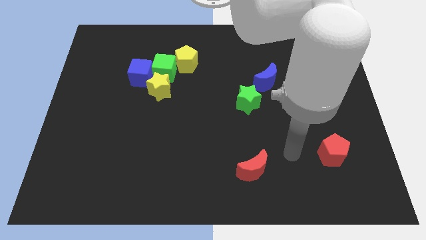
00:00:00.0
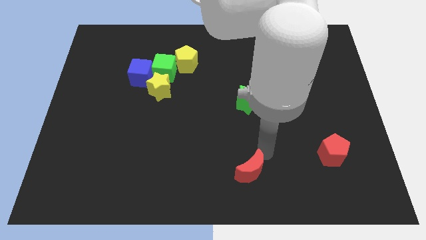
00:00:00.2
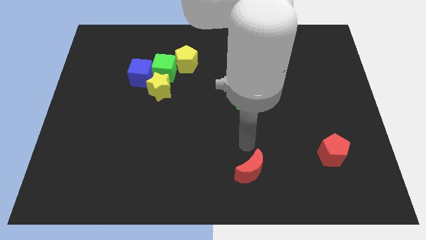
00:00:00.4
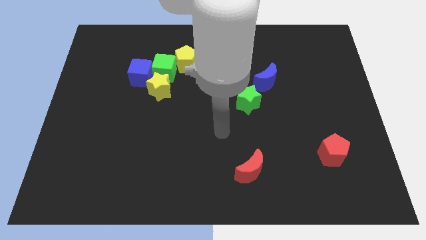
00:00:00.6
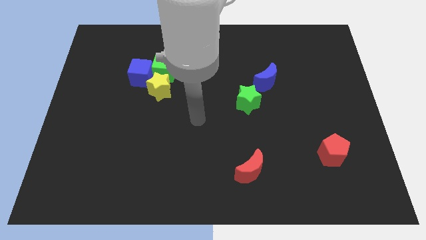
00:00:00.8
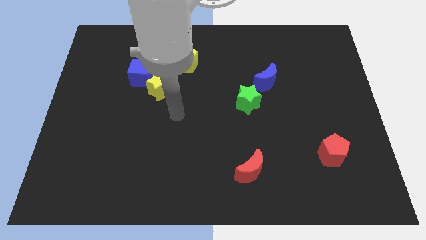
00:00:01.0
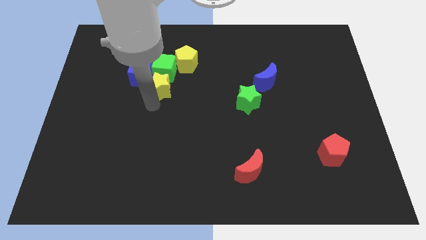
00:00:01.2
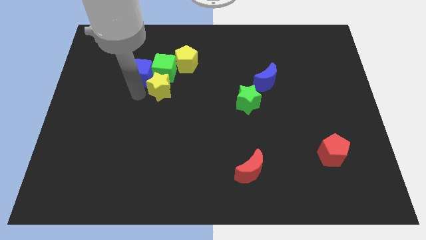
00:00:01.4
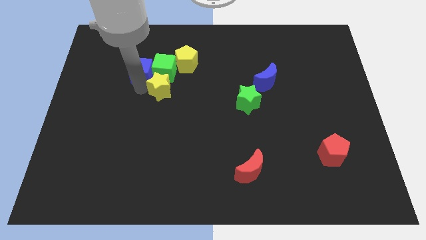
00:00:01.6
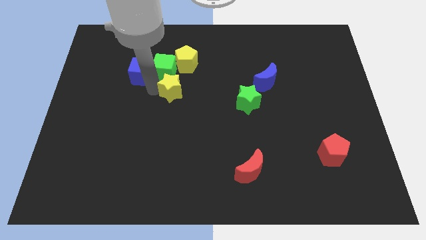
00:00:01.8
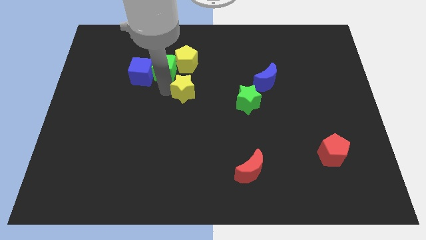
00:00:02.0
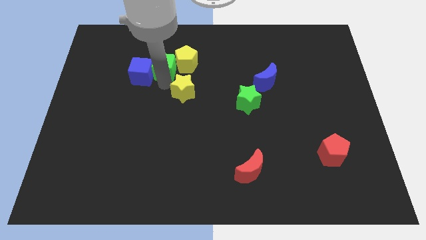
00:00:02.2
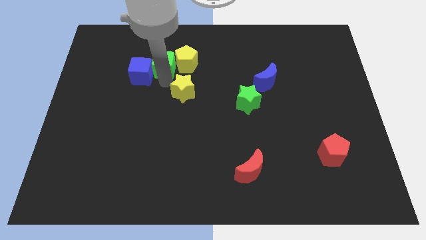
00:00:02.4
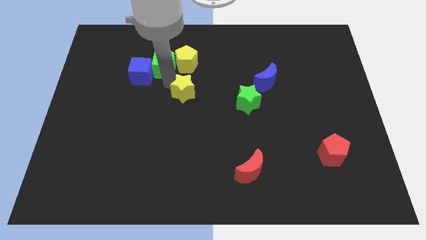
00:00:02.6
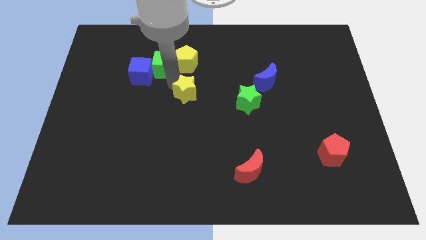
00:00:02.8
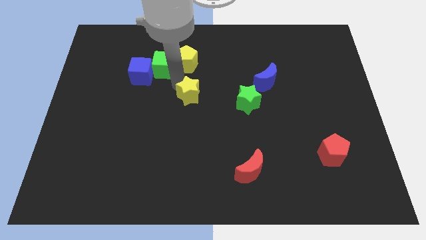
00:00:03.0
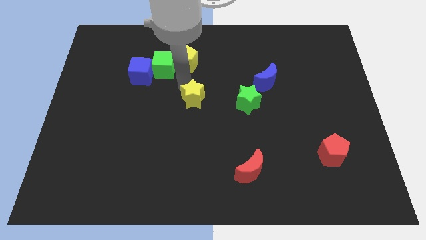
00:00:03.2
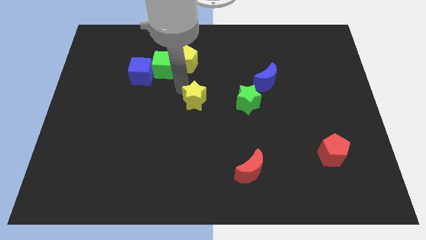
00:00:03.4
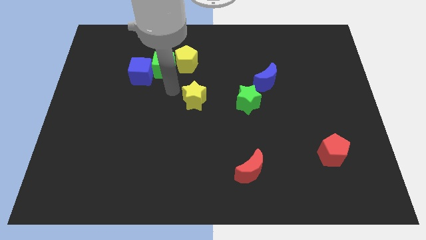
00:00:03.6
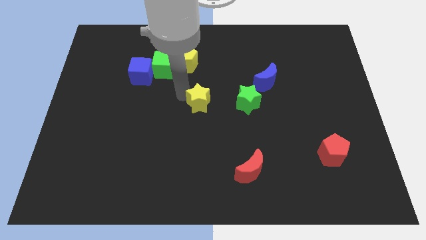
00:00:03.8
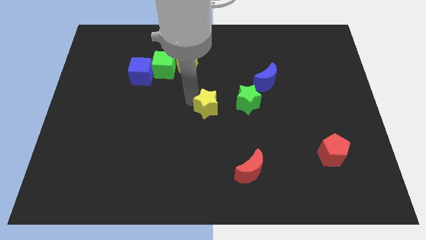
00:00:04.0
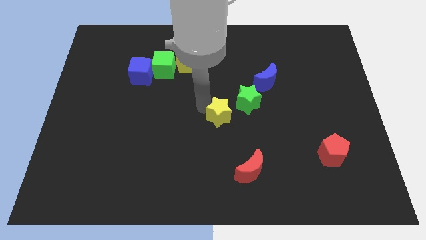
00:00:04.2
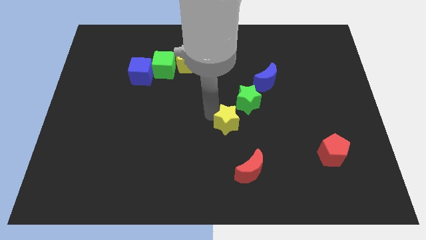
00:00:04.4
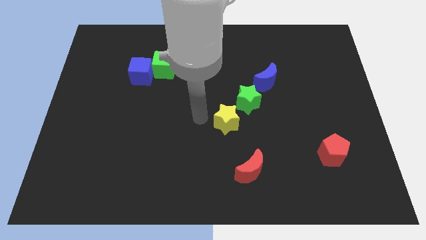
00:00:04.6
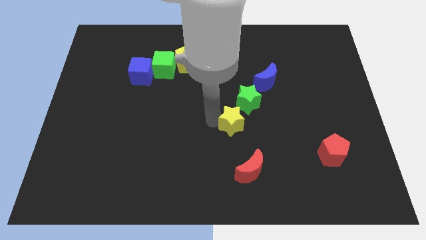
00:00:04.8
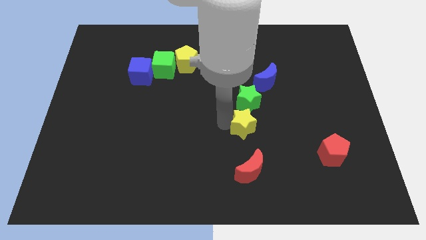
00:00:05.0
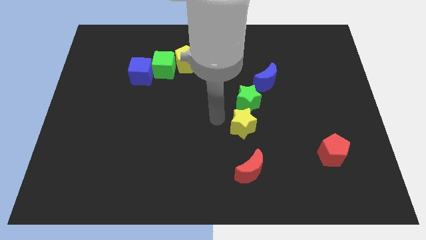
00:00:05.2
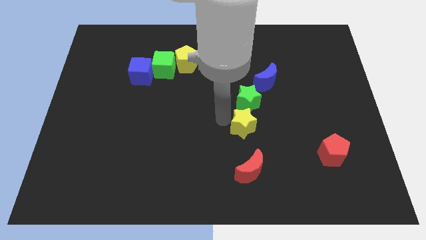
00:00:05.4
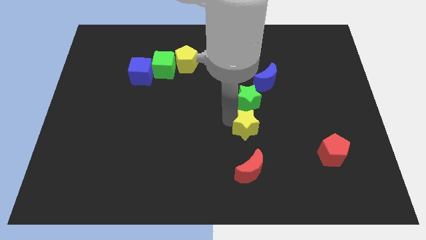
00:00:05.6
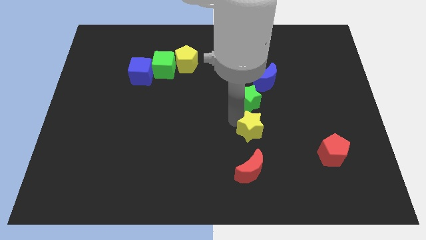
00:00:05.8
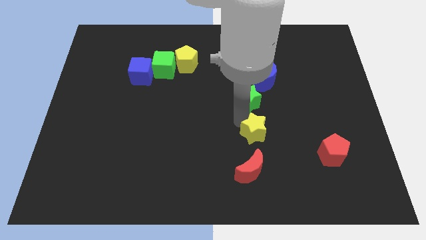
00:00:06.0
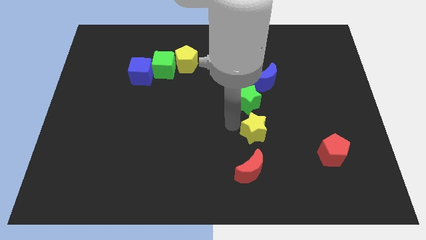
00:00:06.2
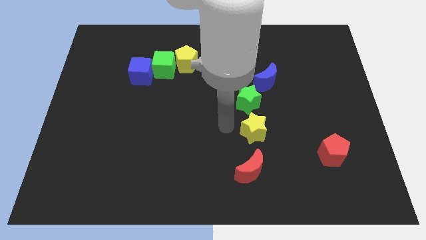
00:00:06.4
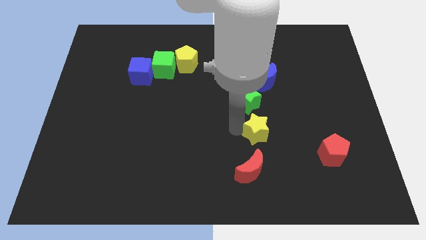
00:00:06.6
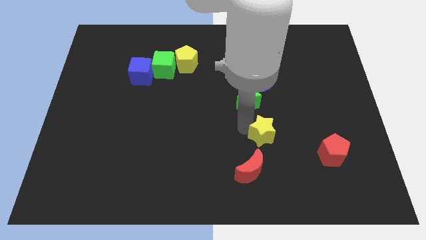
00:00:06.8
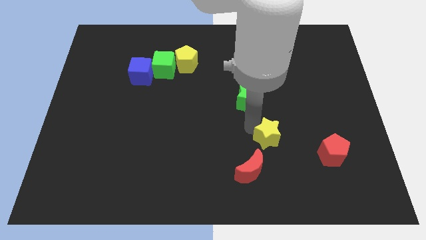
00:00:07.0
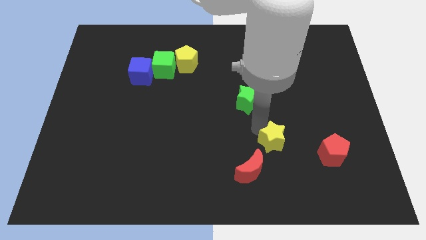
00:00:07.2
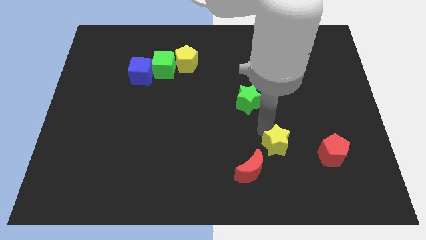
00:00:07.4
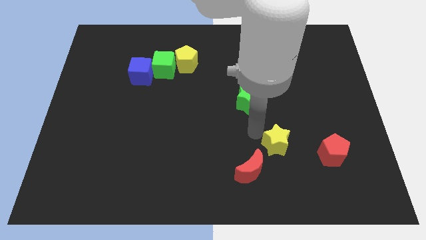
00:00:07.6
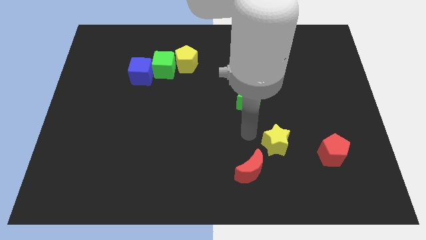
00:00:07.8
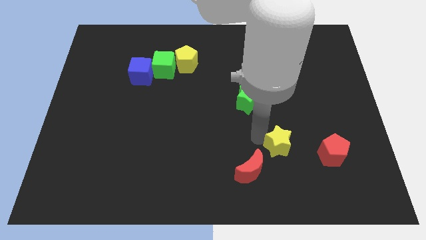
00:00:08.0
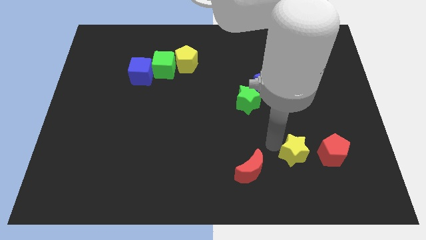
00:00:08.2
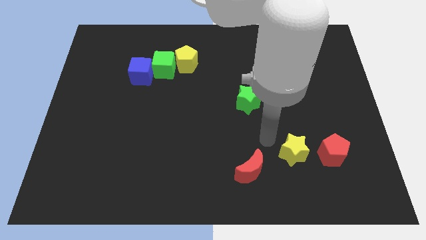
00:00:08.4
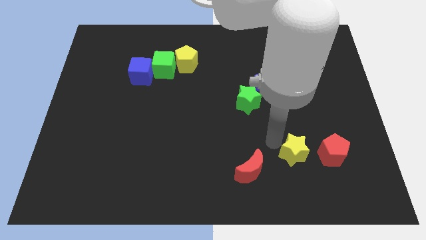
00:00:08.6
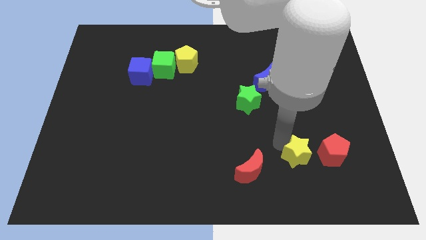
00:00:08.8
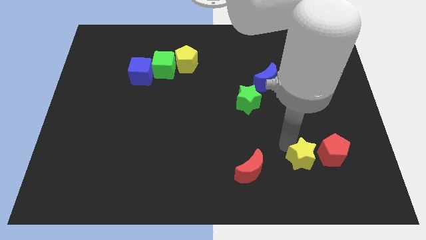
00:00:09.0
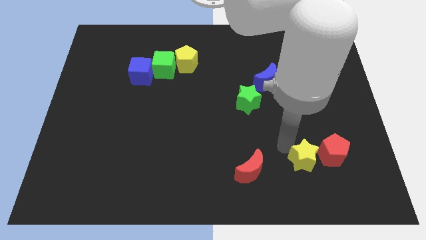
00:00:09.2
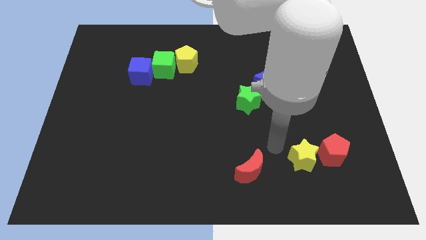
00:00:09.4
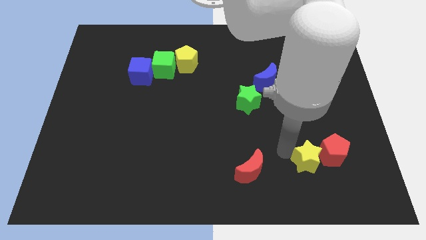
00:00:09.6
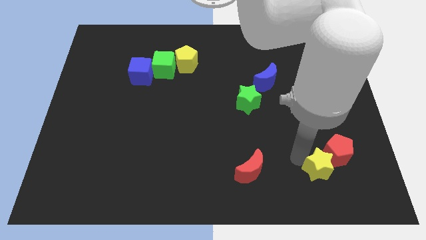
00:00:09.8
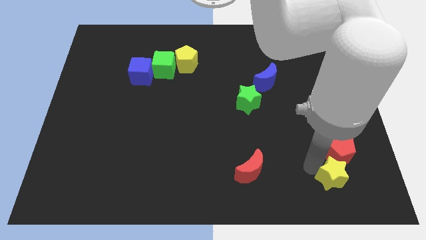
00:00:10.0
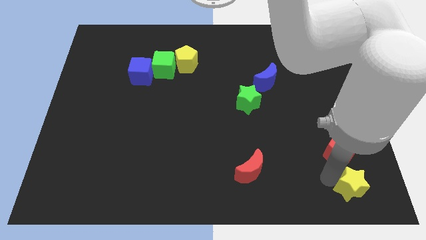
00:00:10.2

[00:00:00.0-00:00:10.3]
put the yellow star to the lower right corner

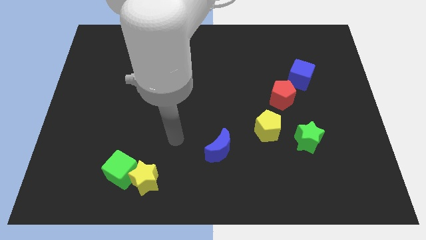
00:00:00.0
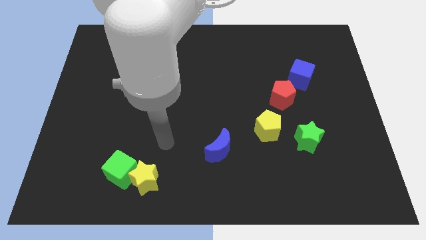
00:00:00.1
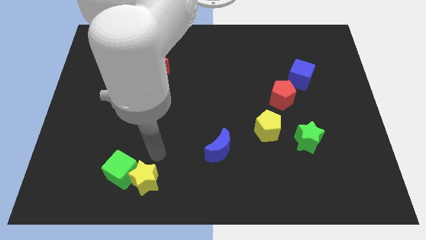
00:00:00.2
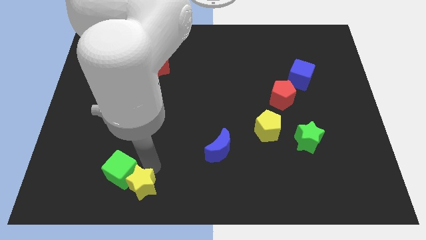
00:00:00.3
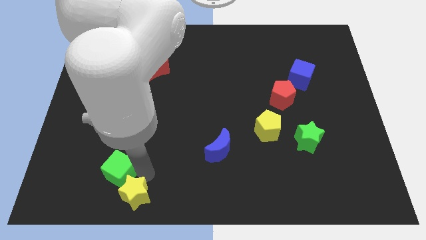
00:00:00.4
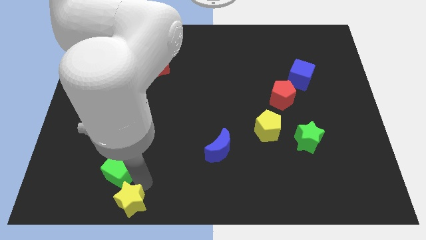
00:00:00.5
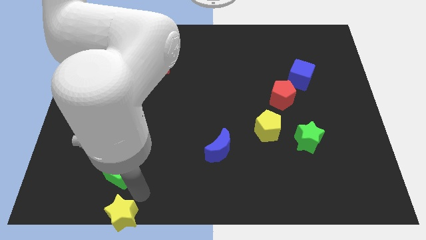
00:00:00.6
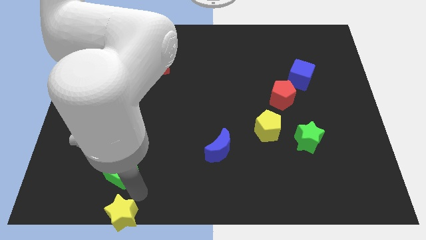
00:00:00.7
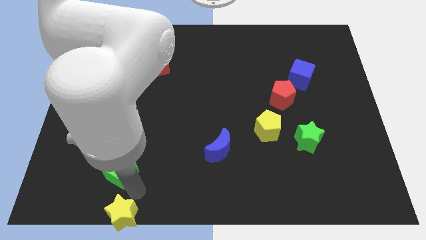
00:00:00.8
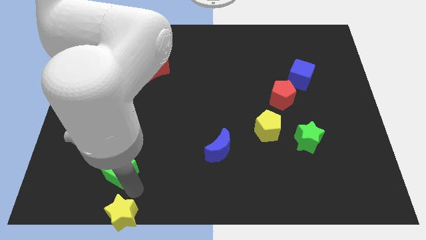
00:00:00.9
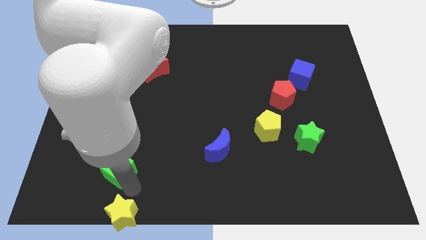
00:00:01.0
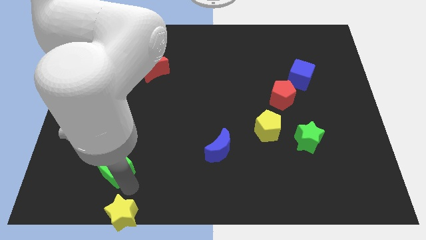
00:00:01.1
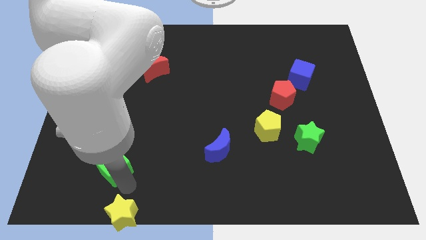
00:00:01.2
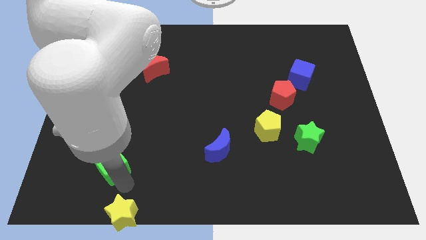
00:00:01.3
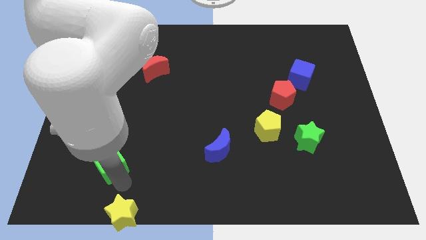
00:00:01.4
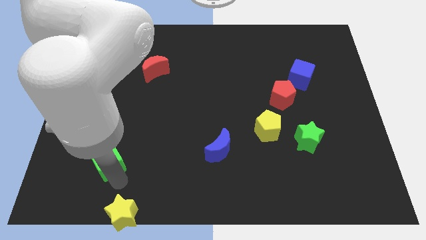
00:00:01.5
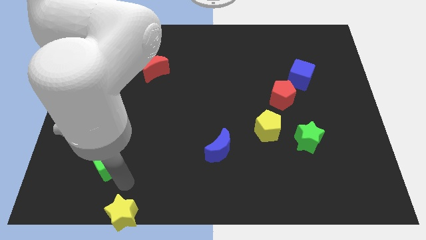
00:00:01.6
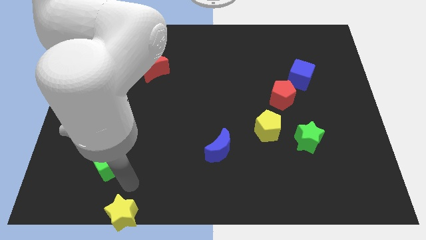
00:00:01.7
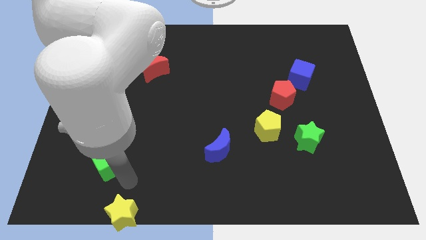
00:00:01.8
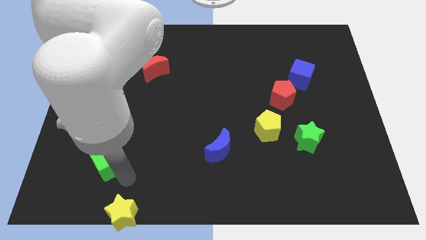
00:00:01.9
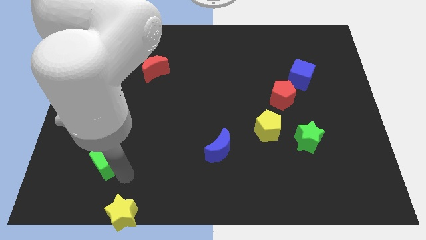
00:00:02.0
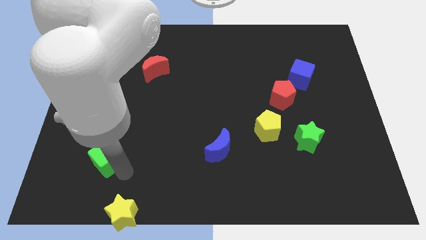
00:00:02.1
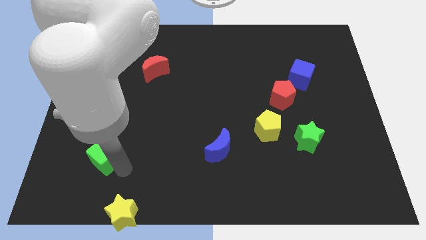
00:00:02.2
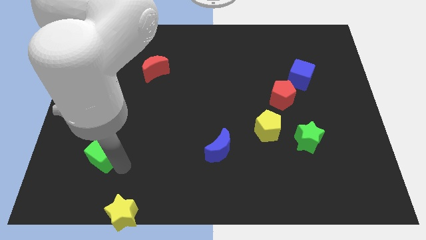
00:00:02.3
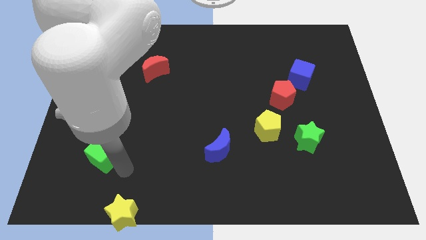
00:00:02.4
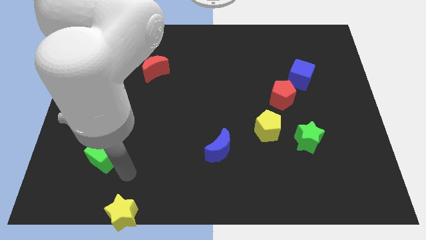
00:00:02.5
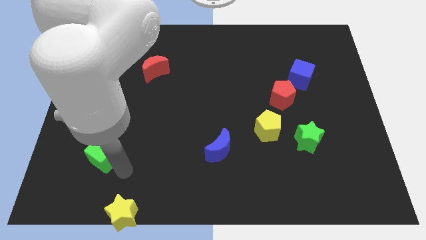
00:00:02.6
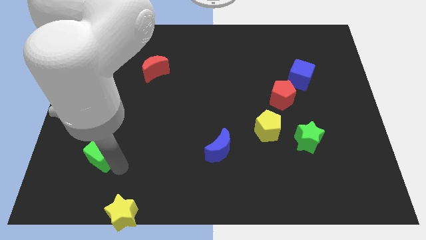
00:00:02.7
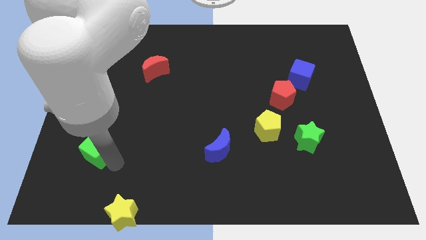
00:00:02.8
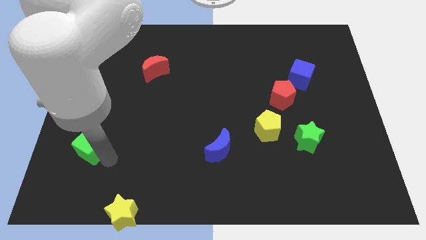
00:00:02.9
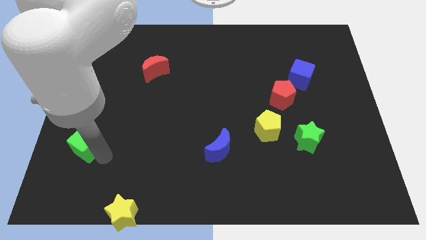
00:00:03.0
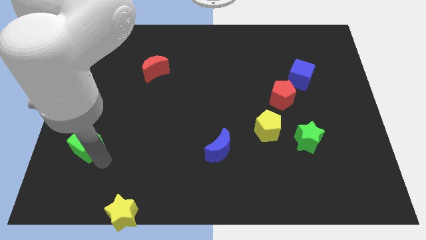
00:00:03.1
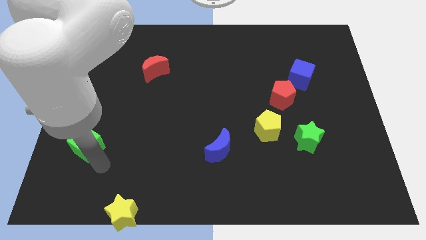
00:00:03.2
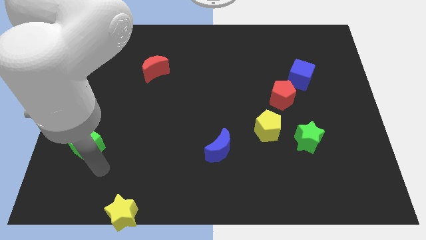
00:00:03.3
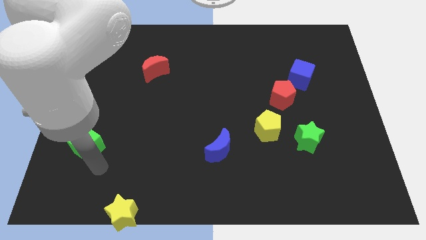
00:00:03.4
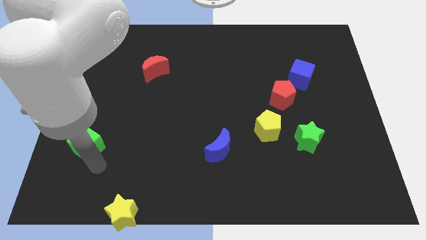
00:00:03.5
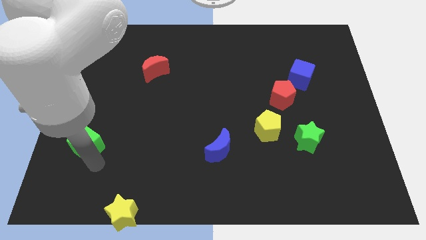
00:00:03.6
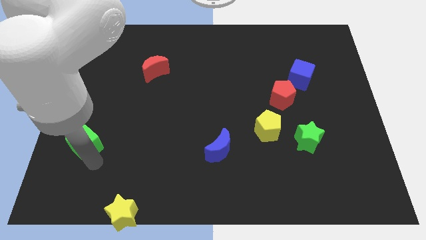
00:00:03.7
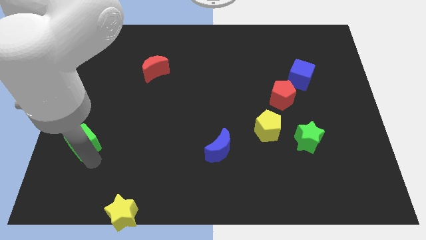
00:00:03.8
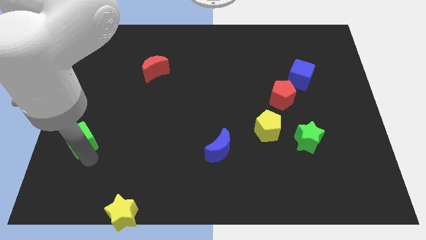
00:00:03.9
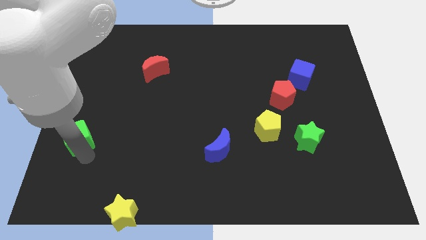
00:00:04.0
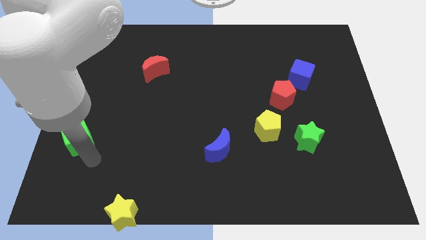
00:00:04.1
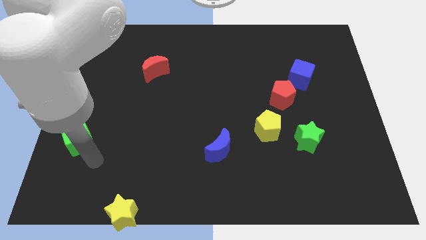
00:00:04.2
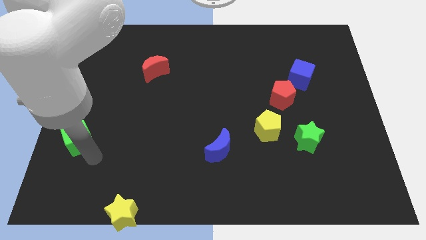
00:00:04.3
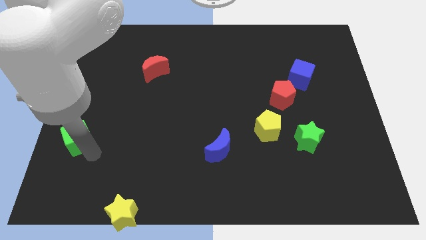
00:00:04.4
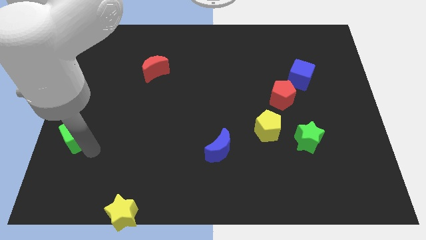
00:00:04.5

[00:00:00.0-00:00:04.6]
move the green cube to the center left
